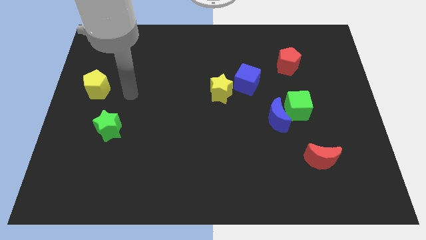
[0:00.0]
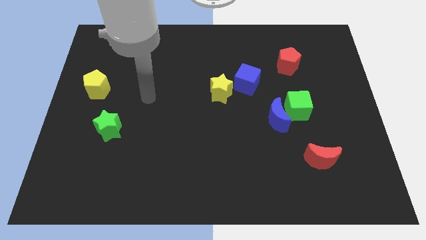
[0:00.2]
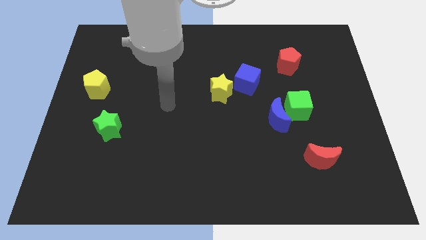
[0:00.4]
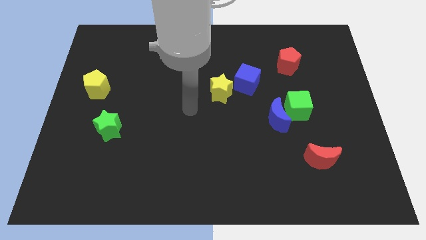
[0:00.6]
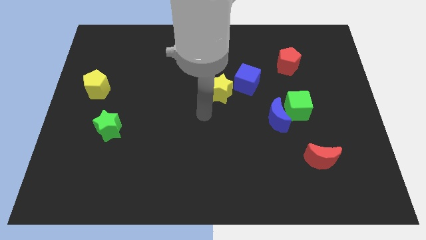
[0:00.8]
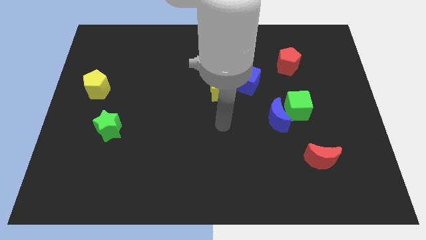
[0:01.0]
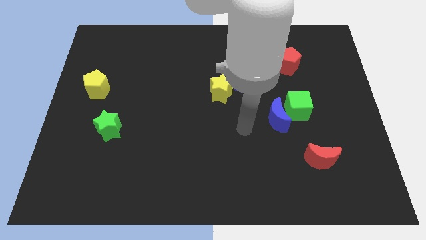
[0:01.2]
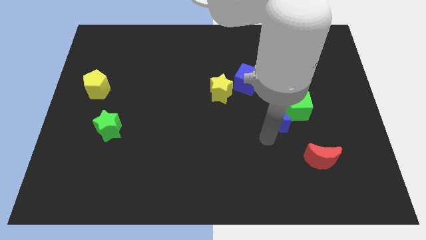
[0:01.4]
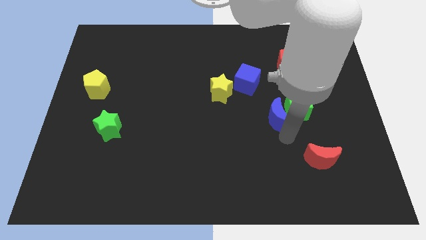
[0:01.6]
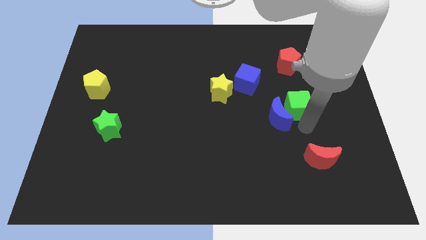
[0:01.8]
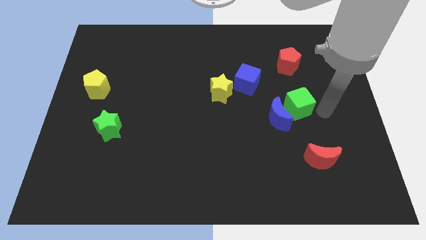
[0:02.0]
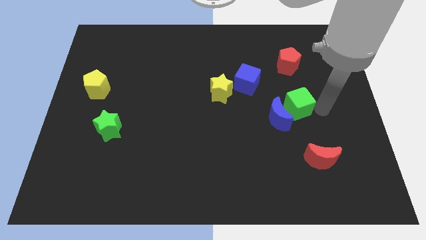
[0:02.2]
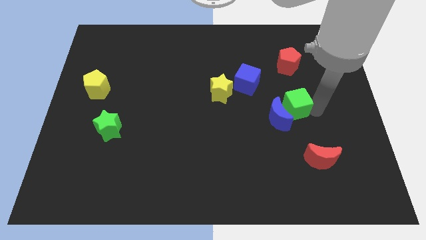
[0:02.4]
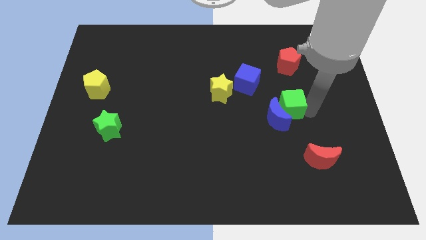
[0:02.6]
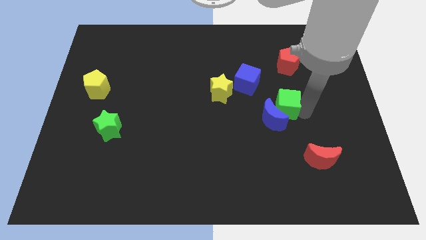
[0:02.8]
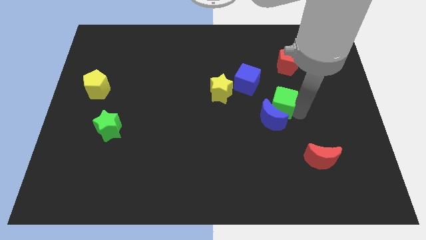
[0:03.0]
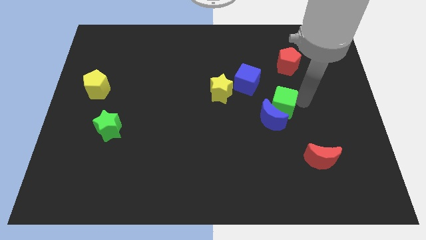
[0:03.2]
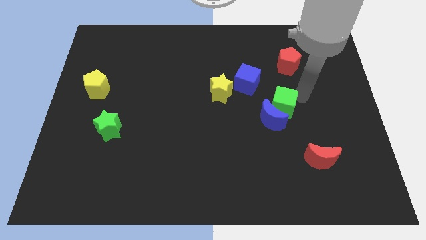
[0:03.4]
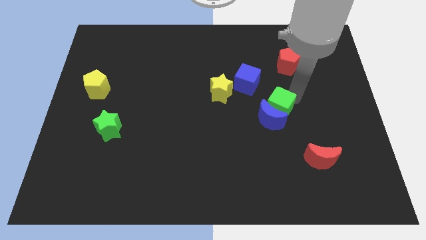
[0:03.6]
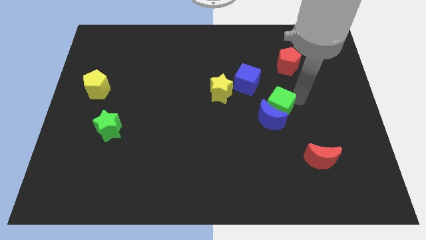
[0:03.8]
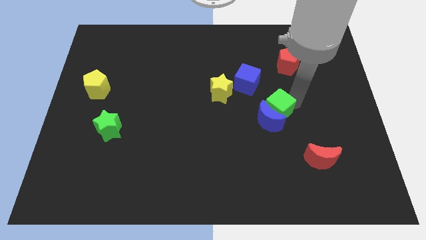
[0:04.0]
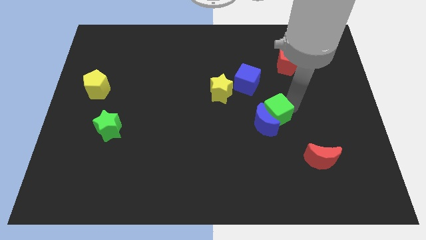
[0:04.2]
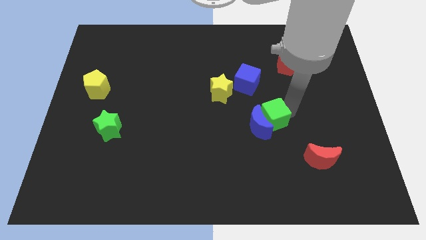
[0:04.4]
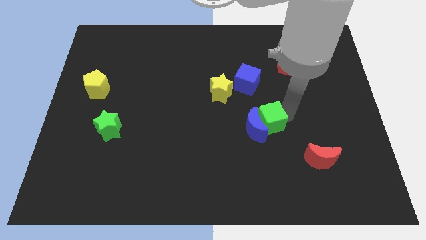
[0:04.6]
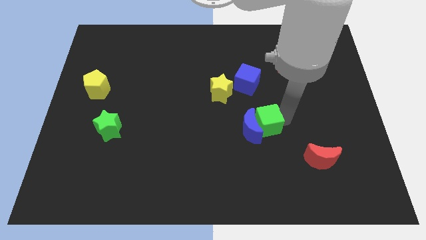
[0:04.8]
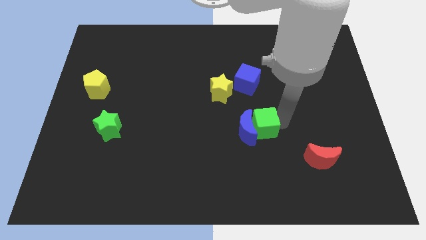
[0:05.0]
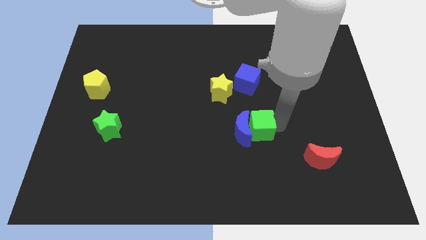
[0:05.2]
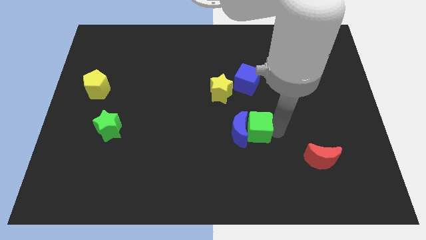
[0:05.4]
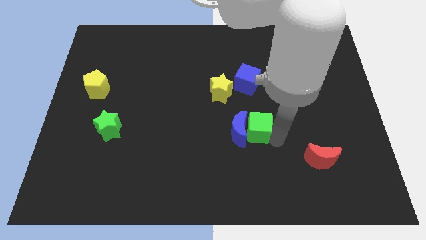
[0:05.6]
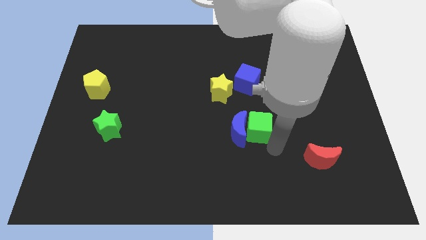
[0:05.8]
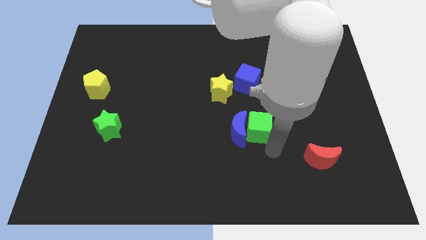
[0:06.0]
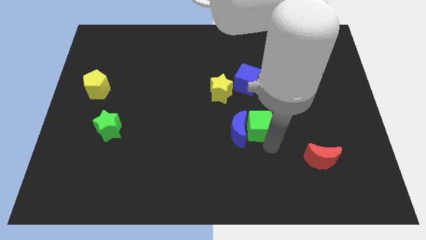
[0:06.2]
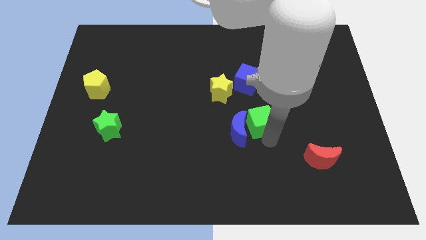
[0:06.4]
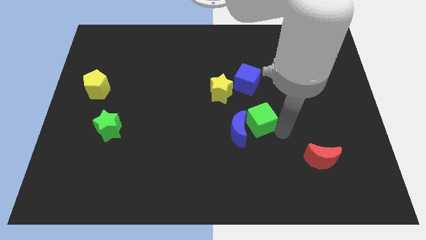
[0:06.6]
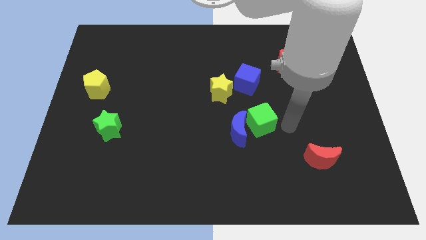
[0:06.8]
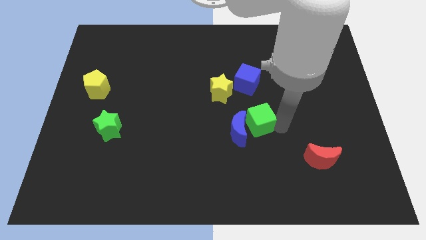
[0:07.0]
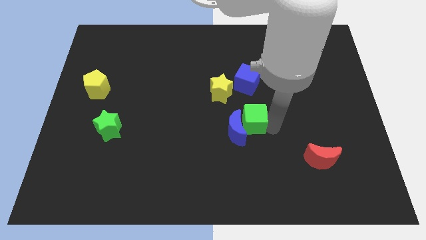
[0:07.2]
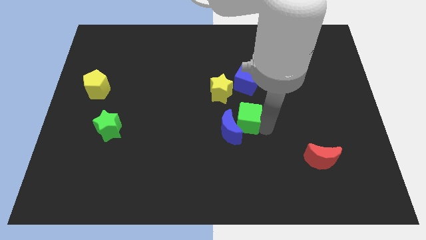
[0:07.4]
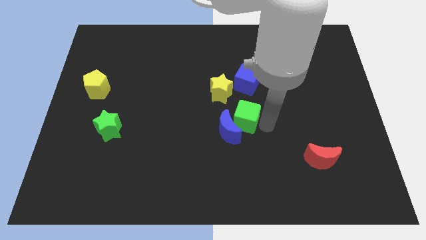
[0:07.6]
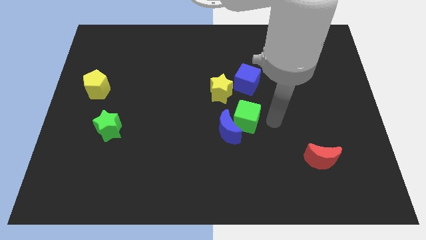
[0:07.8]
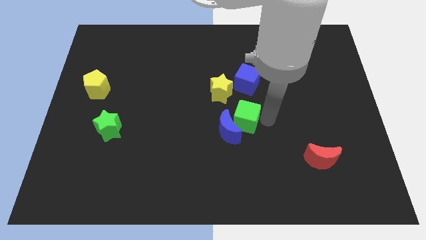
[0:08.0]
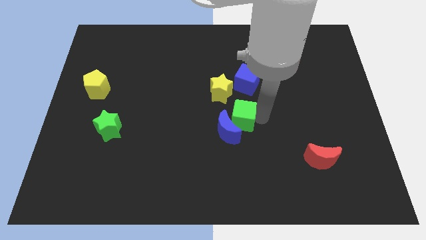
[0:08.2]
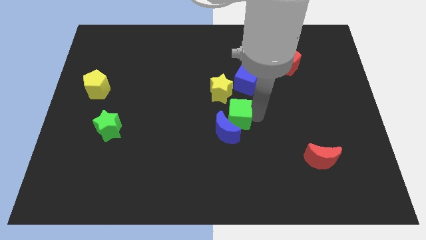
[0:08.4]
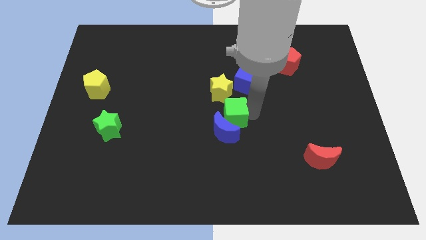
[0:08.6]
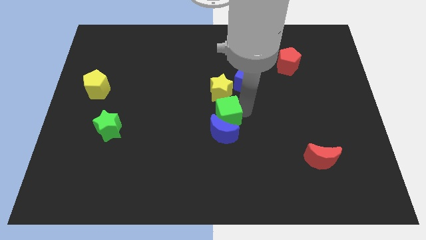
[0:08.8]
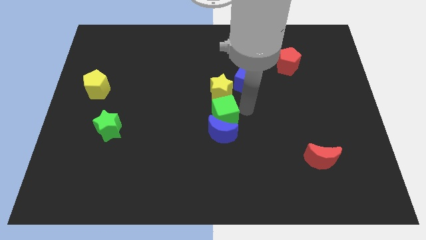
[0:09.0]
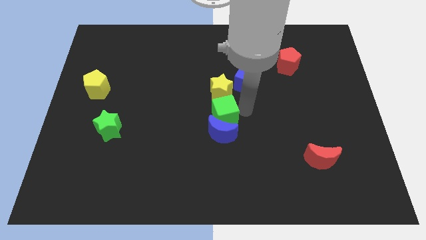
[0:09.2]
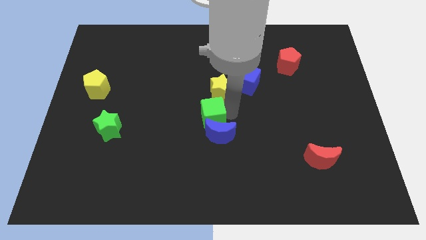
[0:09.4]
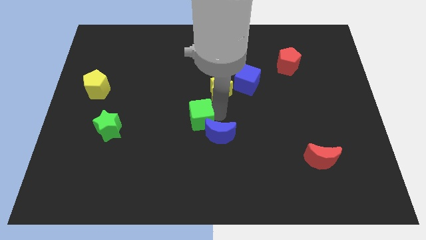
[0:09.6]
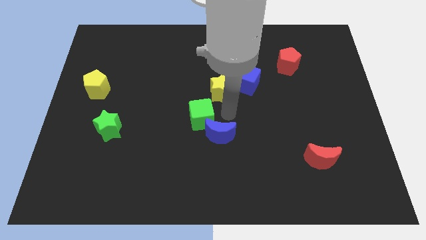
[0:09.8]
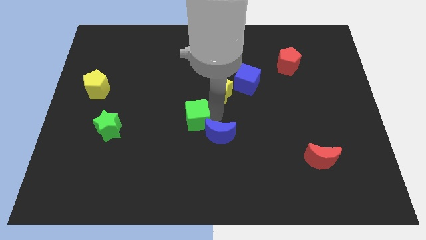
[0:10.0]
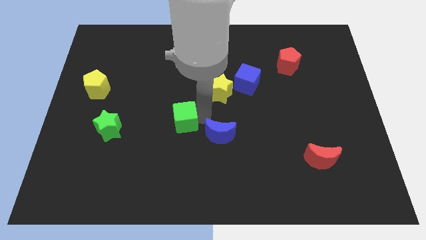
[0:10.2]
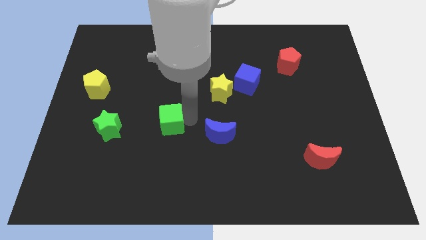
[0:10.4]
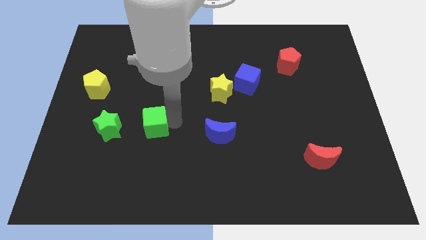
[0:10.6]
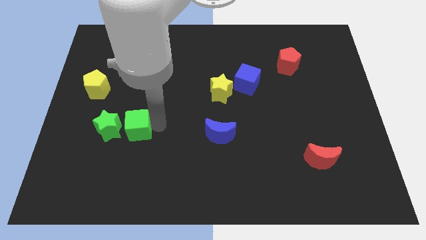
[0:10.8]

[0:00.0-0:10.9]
put the green cube to the green star

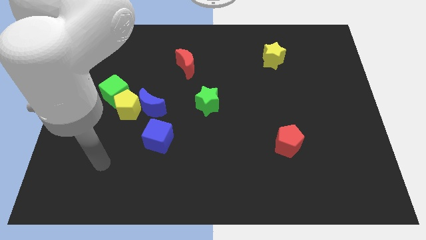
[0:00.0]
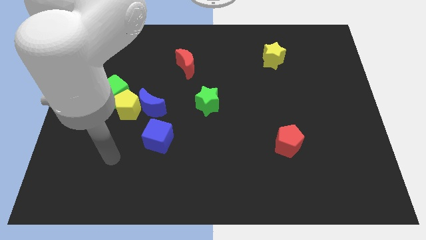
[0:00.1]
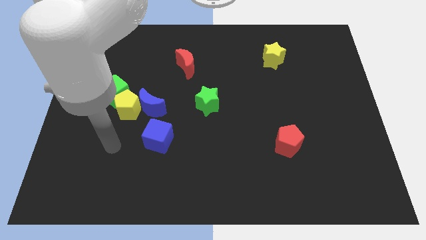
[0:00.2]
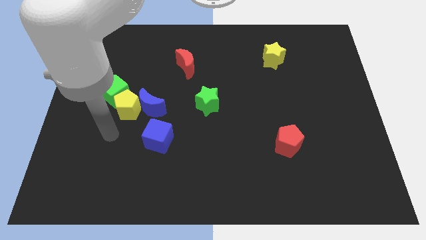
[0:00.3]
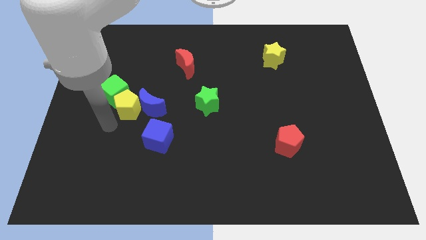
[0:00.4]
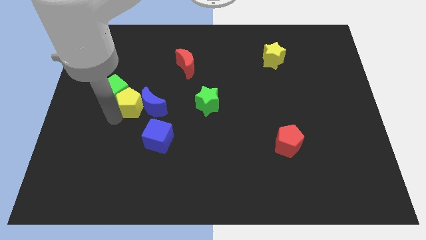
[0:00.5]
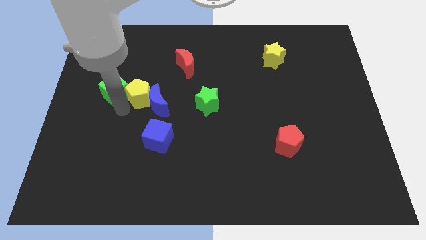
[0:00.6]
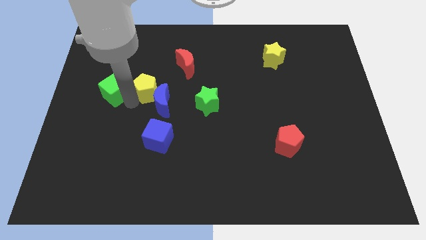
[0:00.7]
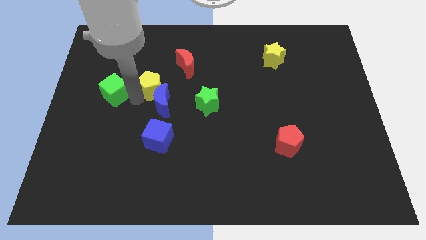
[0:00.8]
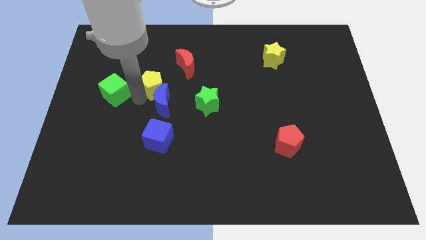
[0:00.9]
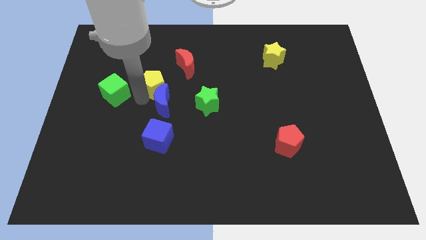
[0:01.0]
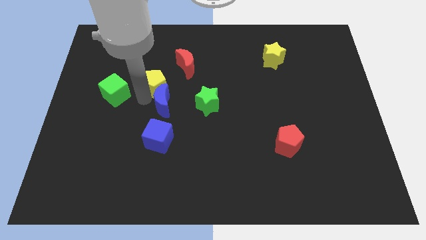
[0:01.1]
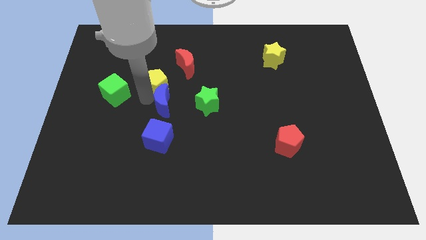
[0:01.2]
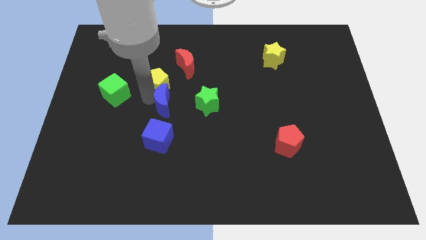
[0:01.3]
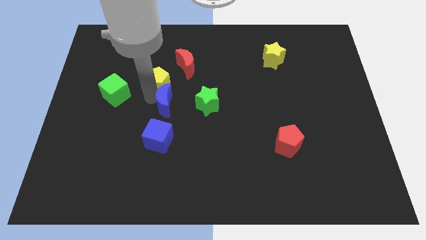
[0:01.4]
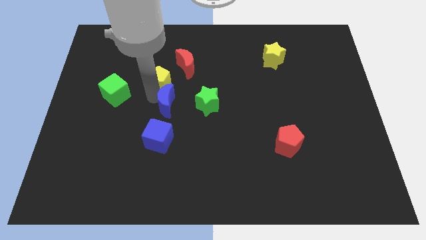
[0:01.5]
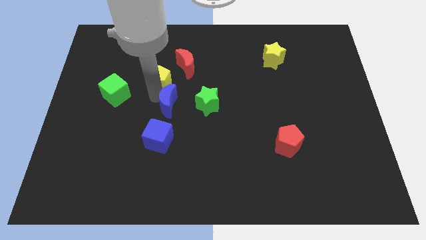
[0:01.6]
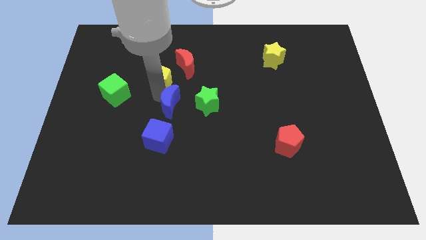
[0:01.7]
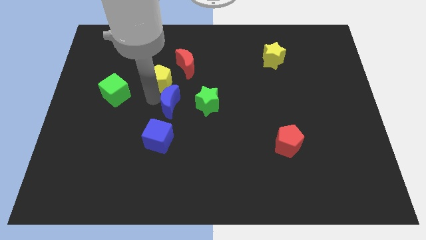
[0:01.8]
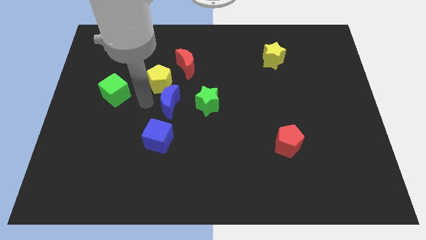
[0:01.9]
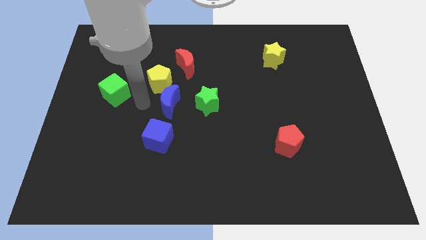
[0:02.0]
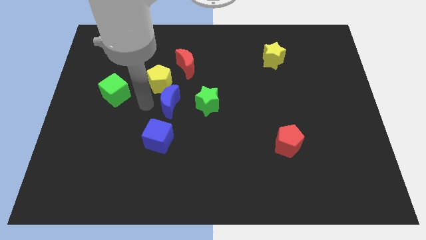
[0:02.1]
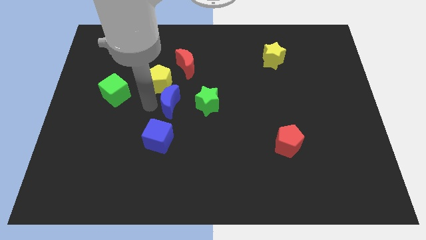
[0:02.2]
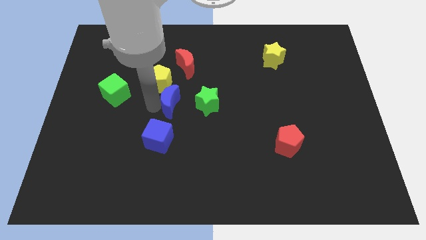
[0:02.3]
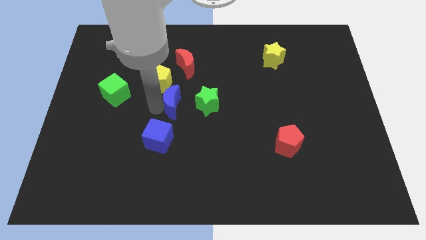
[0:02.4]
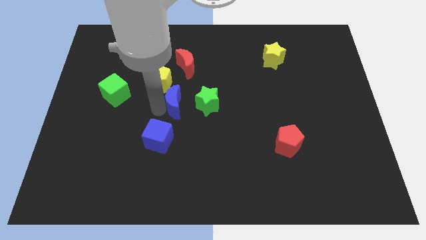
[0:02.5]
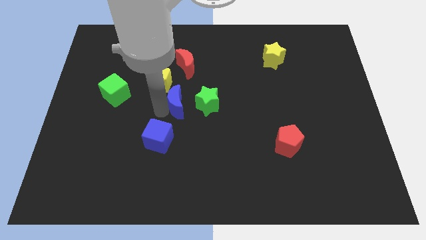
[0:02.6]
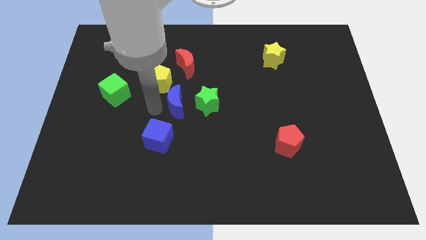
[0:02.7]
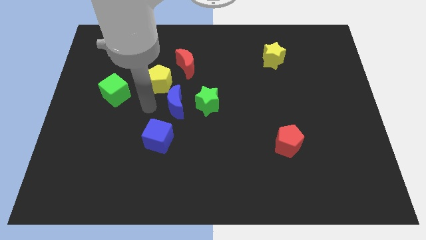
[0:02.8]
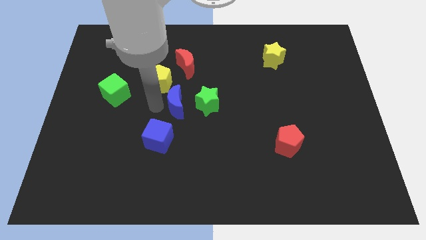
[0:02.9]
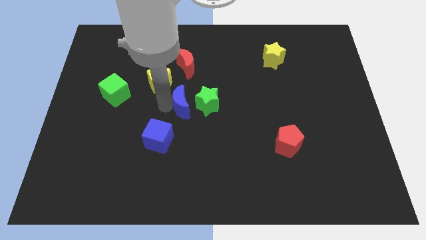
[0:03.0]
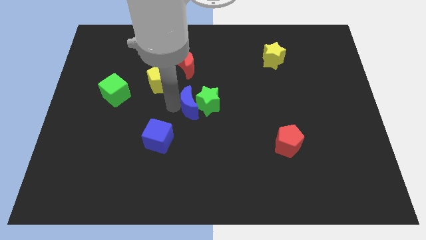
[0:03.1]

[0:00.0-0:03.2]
slide the blue moon next to the green star
